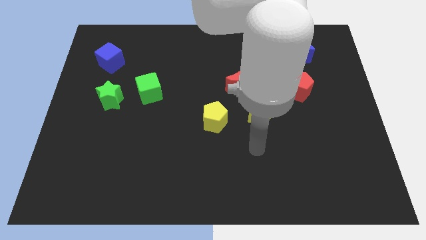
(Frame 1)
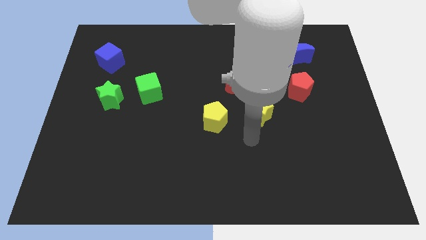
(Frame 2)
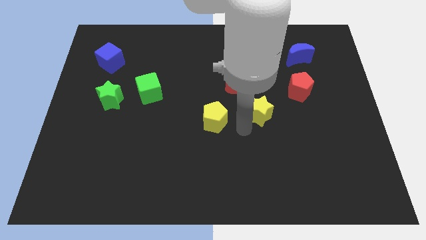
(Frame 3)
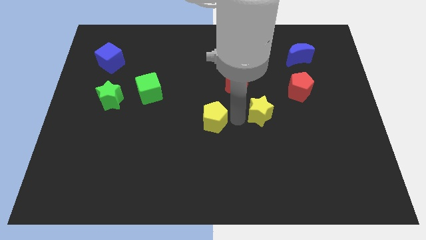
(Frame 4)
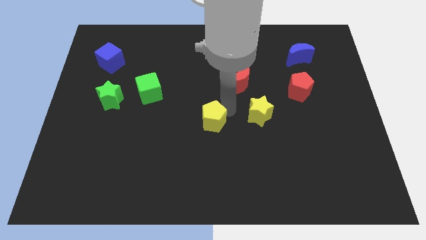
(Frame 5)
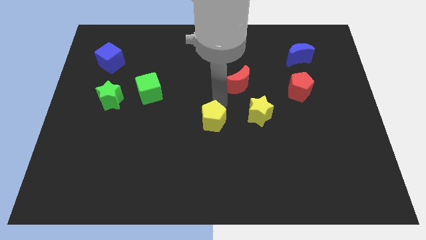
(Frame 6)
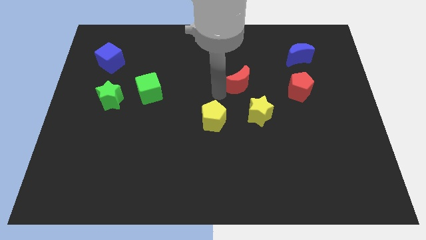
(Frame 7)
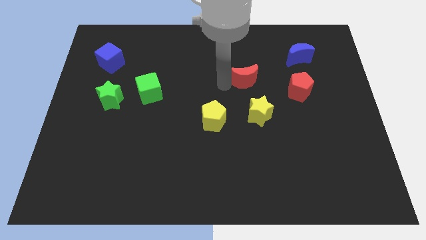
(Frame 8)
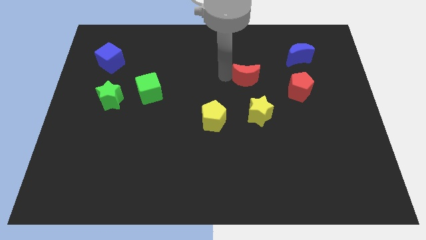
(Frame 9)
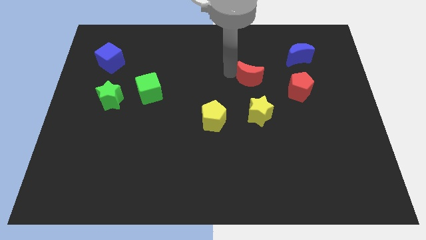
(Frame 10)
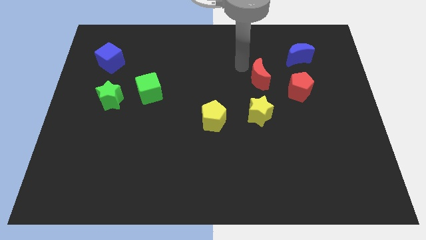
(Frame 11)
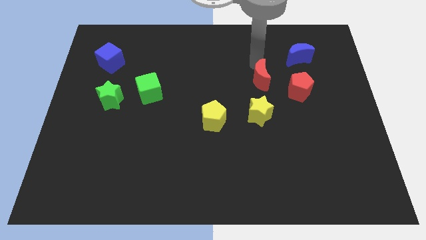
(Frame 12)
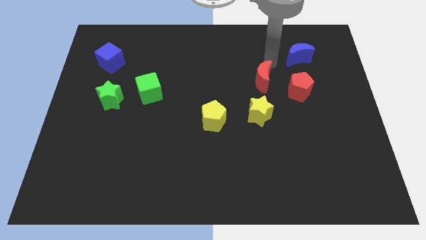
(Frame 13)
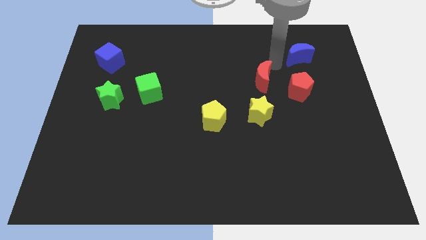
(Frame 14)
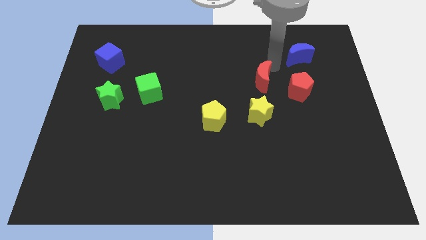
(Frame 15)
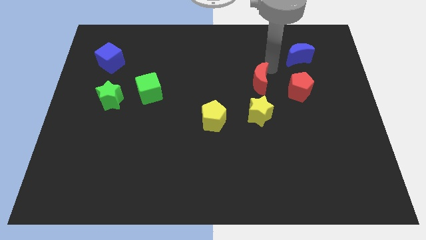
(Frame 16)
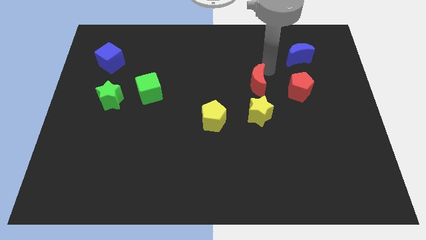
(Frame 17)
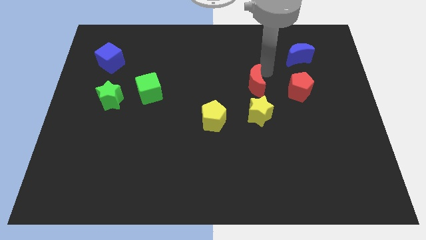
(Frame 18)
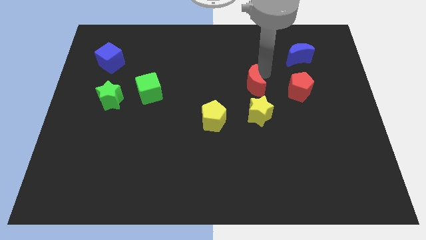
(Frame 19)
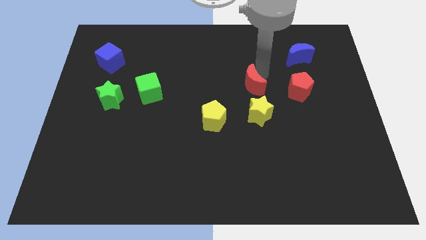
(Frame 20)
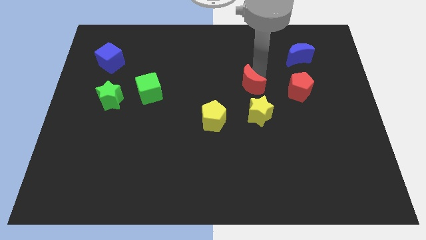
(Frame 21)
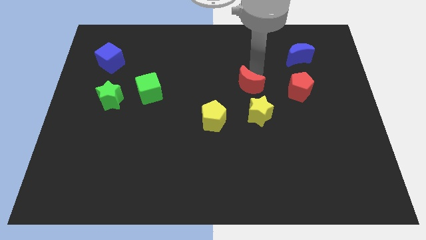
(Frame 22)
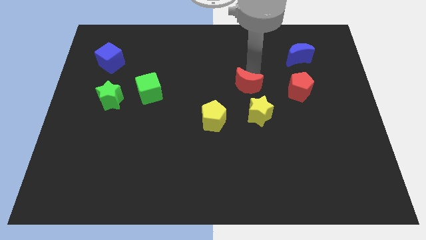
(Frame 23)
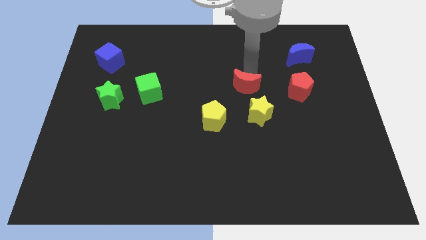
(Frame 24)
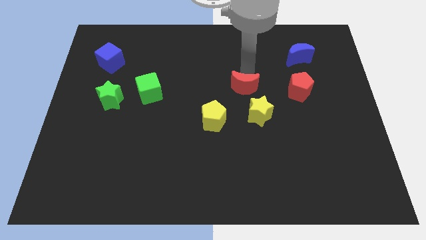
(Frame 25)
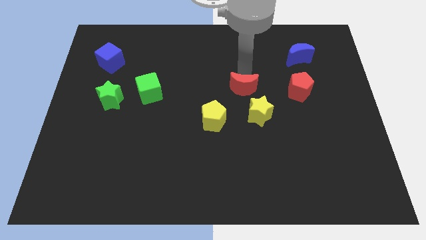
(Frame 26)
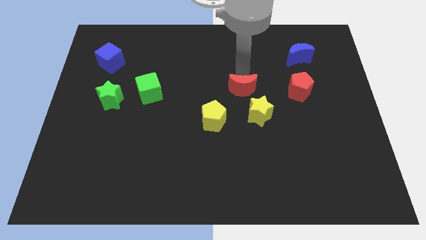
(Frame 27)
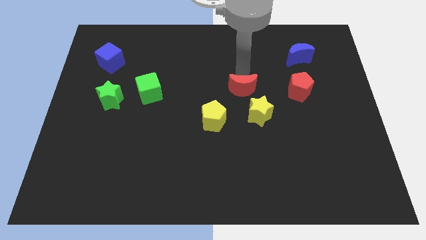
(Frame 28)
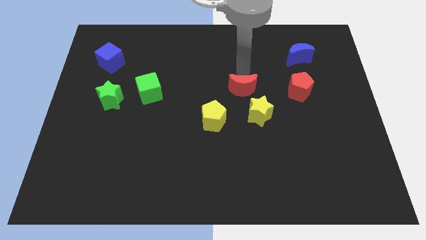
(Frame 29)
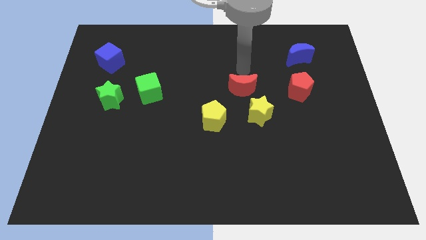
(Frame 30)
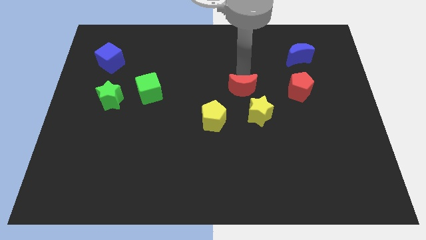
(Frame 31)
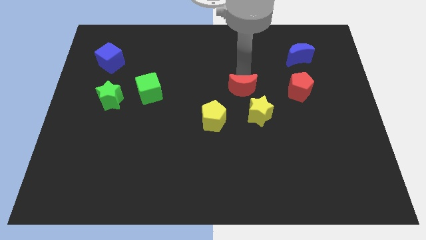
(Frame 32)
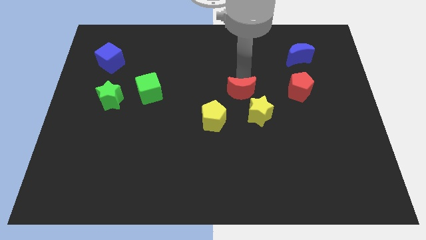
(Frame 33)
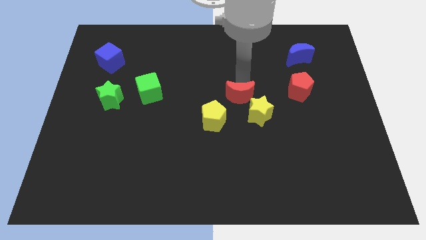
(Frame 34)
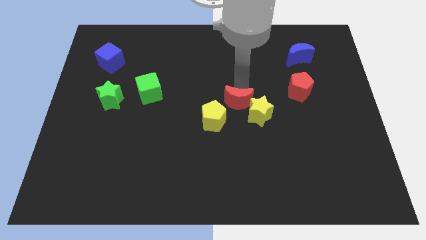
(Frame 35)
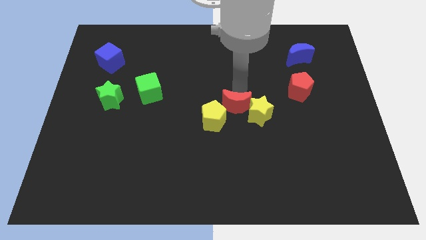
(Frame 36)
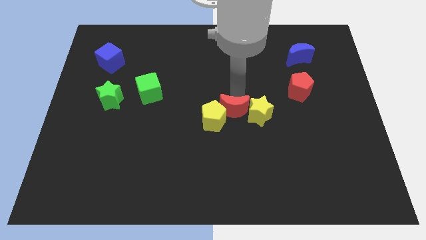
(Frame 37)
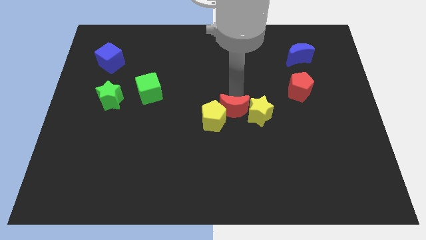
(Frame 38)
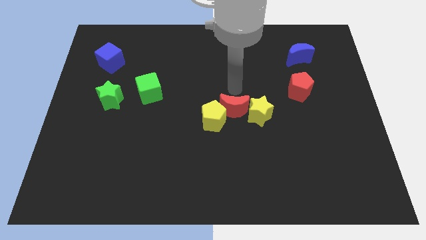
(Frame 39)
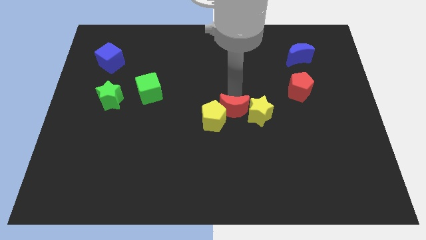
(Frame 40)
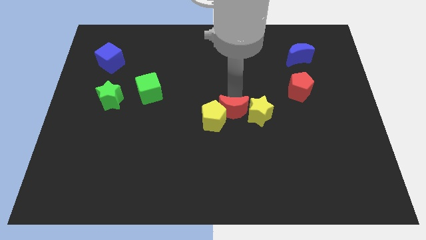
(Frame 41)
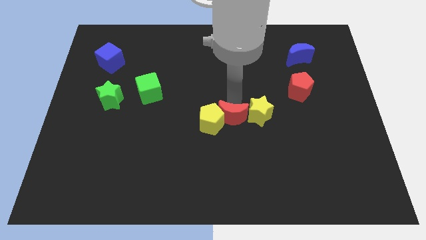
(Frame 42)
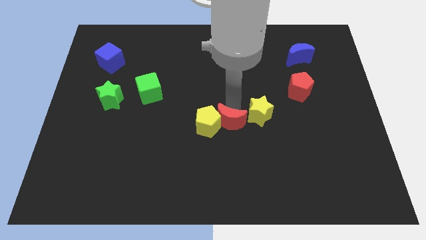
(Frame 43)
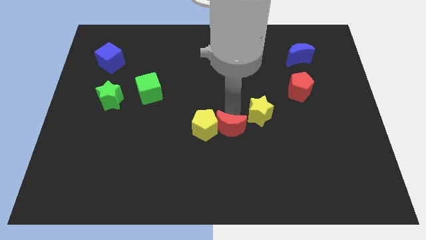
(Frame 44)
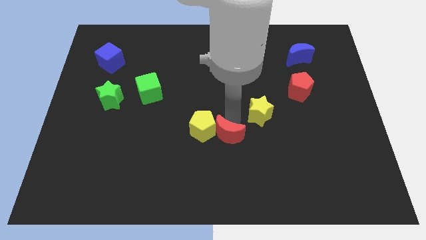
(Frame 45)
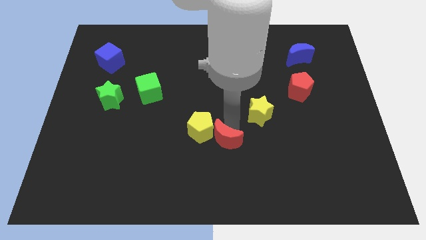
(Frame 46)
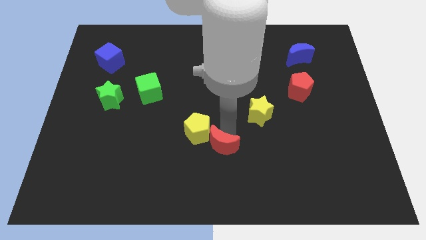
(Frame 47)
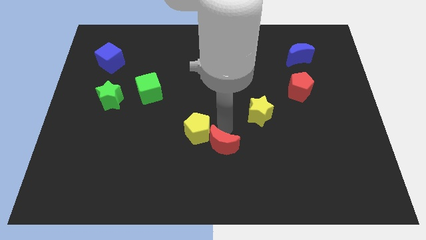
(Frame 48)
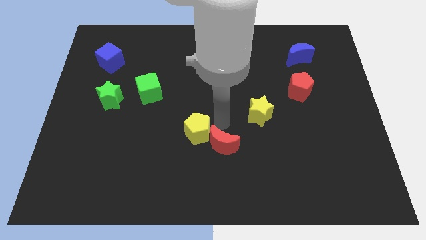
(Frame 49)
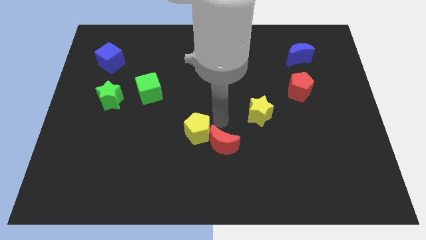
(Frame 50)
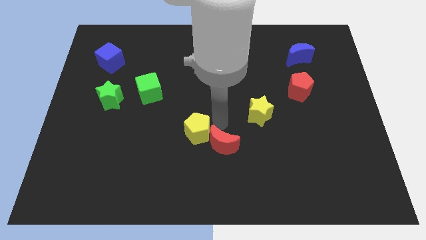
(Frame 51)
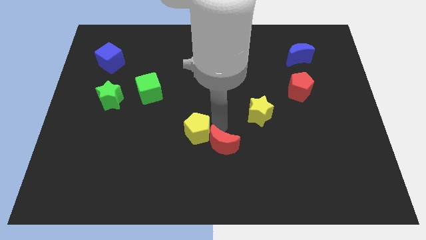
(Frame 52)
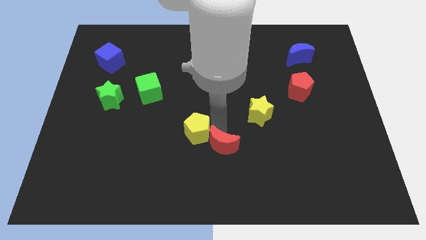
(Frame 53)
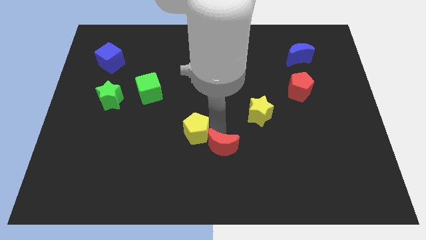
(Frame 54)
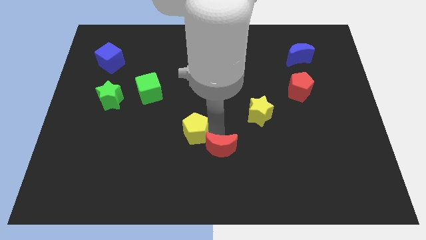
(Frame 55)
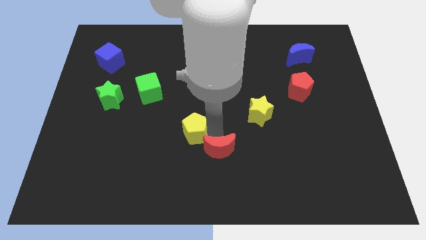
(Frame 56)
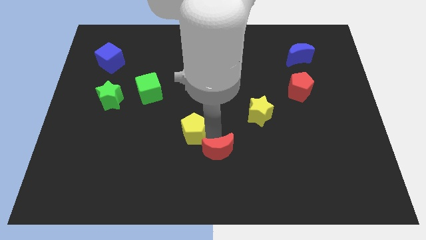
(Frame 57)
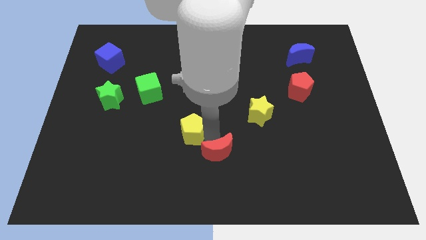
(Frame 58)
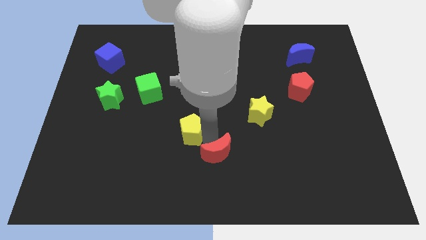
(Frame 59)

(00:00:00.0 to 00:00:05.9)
slide the red moon to the bottom
